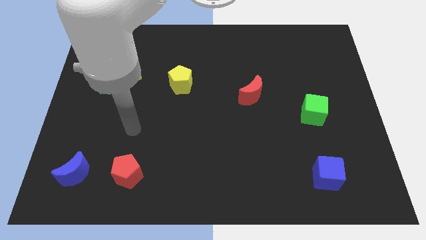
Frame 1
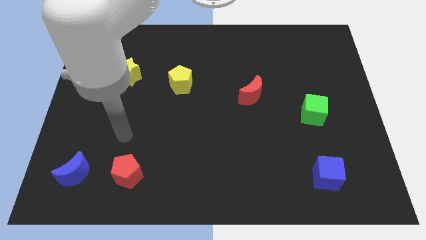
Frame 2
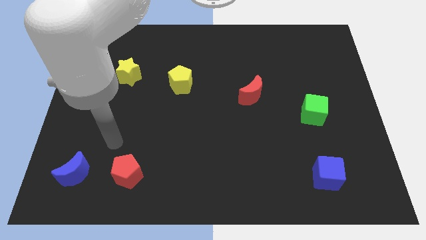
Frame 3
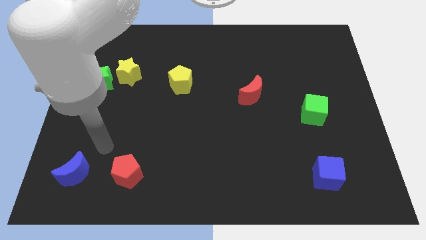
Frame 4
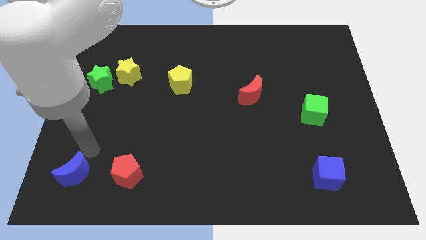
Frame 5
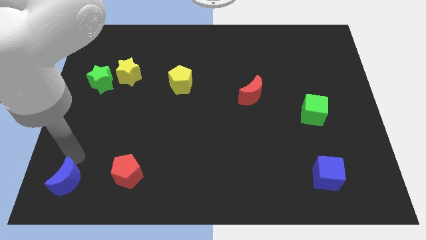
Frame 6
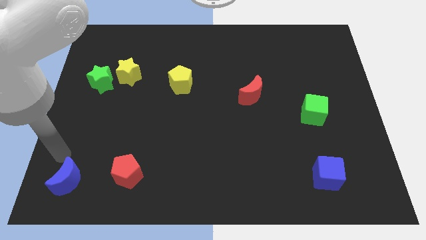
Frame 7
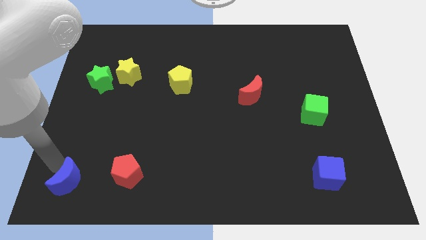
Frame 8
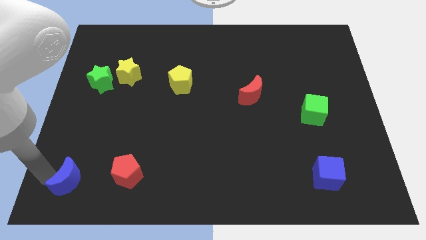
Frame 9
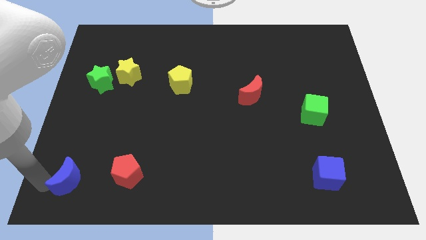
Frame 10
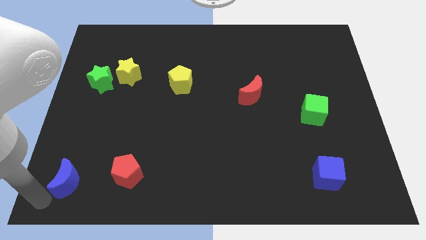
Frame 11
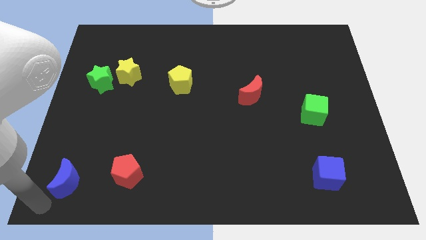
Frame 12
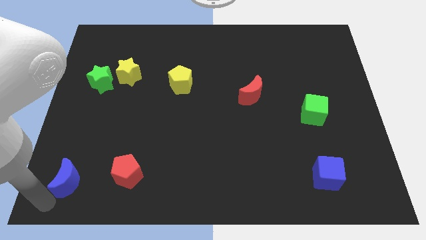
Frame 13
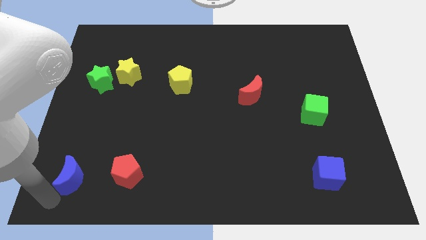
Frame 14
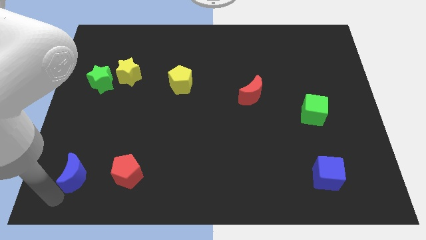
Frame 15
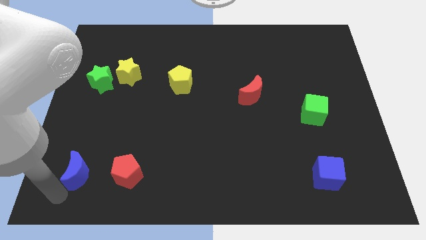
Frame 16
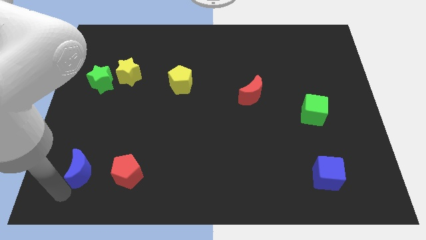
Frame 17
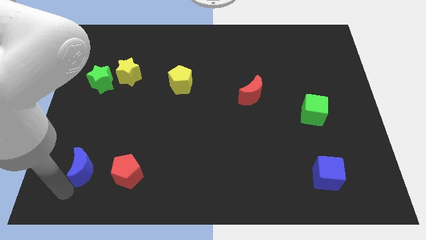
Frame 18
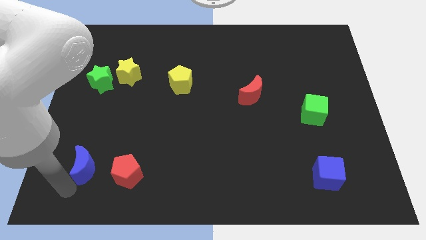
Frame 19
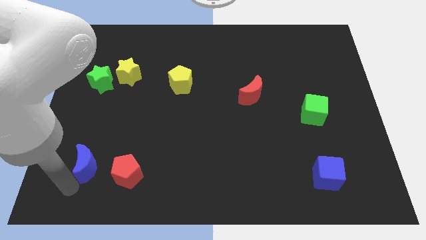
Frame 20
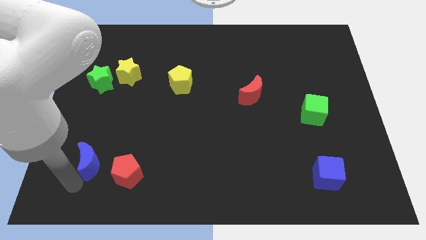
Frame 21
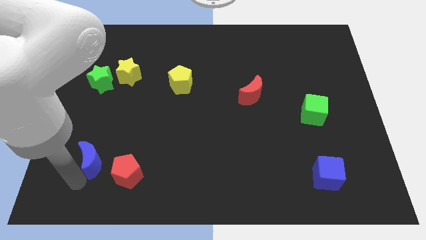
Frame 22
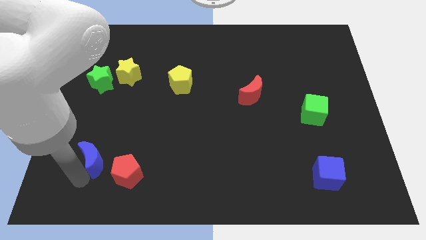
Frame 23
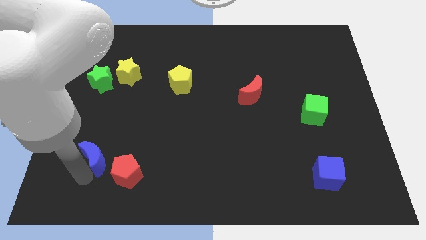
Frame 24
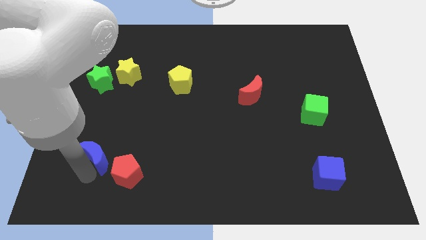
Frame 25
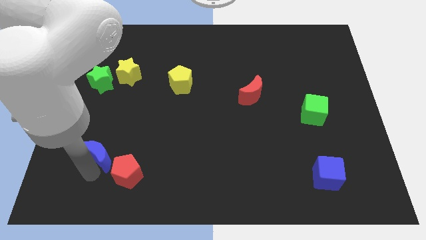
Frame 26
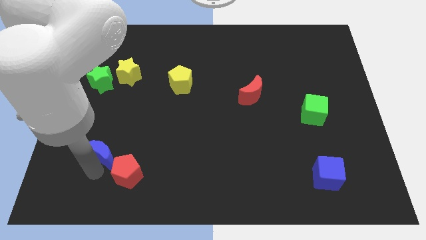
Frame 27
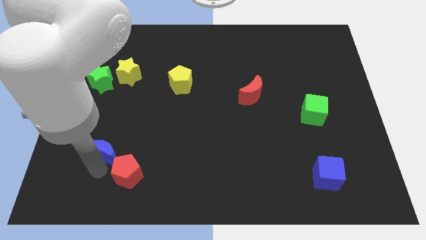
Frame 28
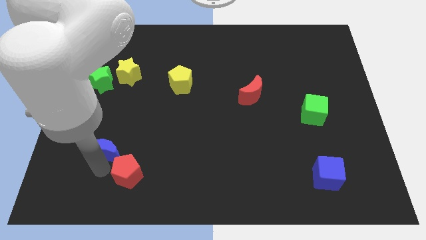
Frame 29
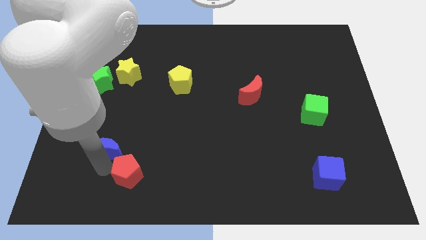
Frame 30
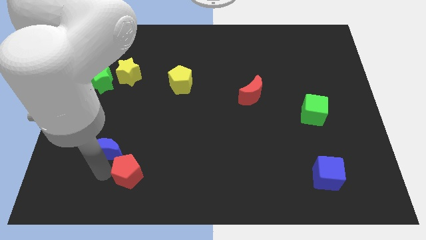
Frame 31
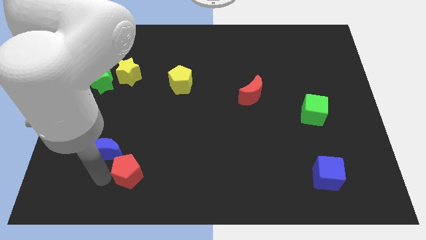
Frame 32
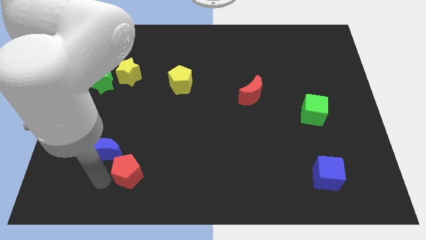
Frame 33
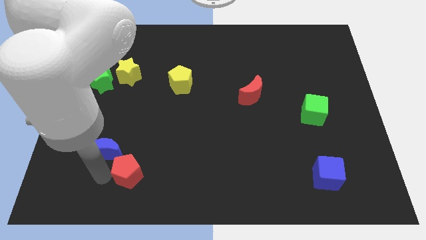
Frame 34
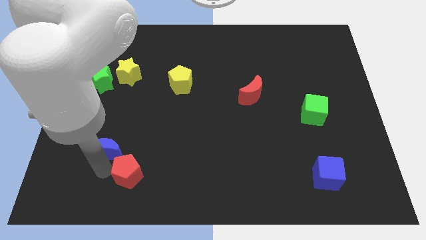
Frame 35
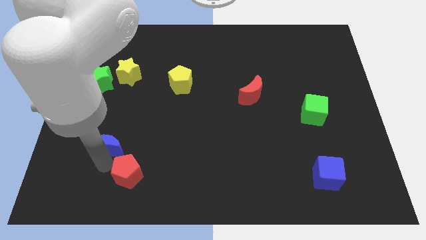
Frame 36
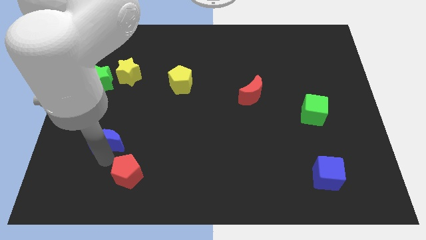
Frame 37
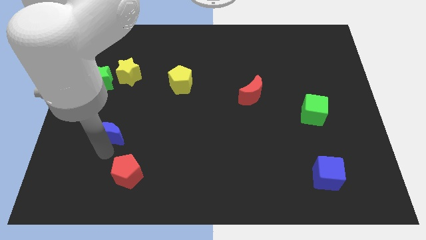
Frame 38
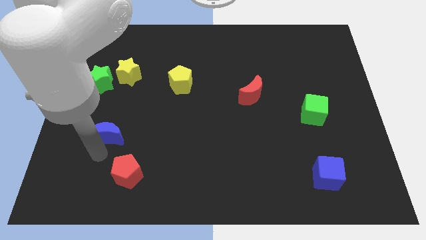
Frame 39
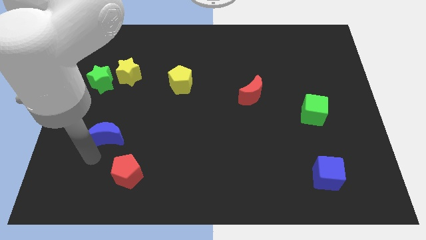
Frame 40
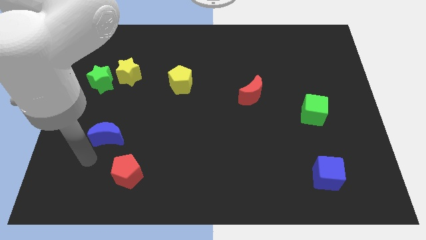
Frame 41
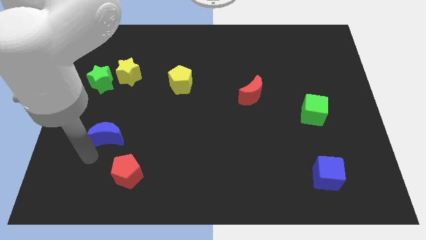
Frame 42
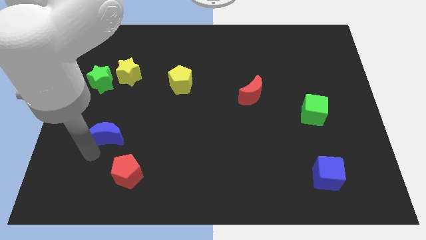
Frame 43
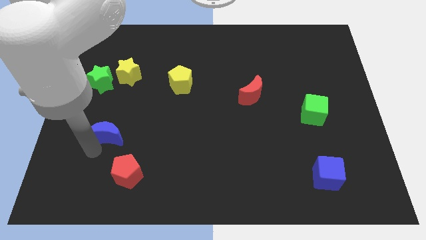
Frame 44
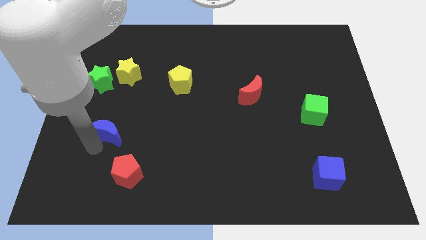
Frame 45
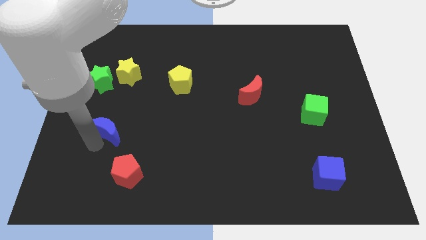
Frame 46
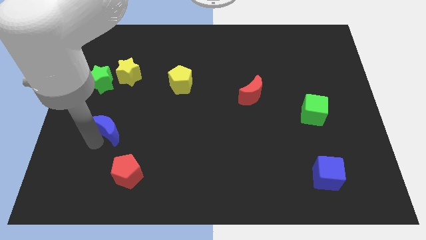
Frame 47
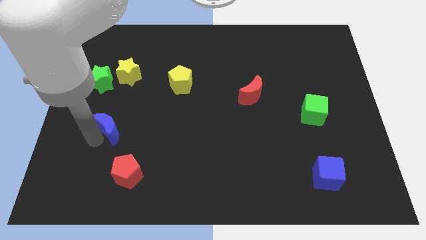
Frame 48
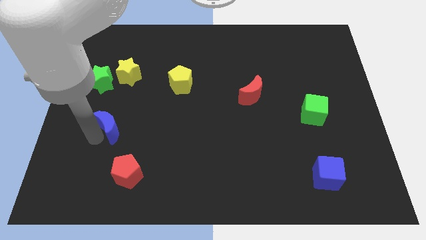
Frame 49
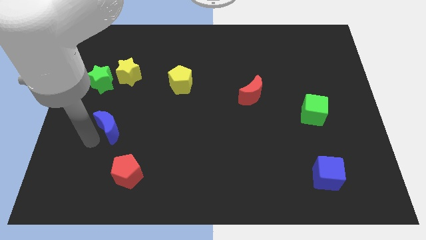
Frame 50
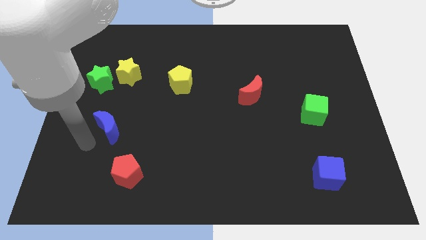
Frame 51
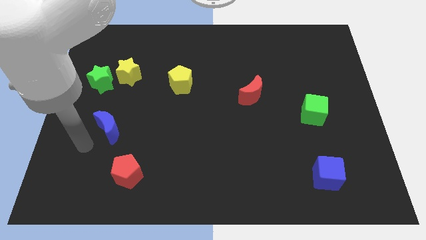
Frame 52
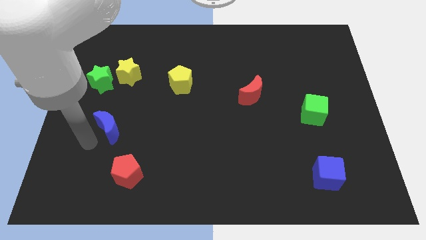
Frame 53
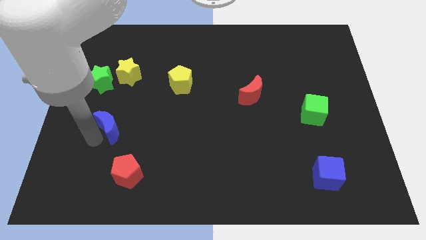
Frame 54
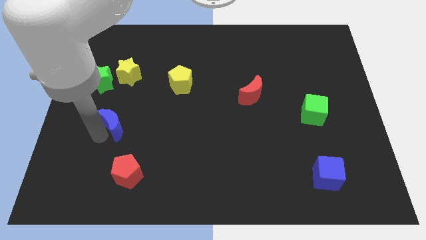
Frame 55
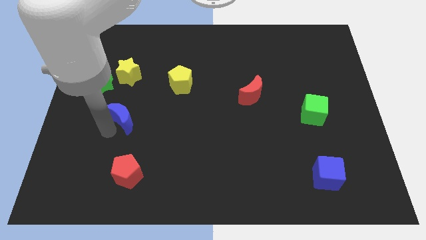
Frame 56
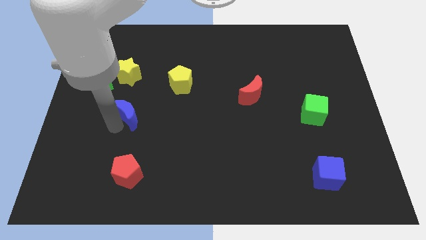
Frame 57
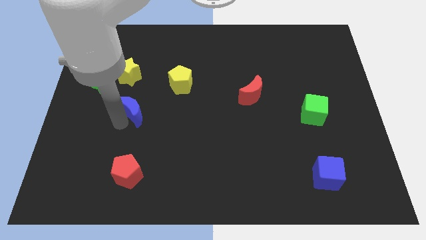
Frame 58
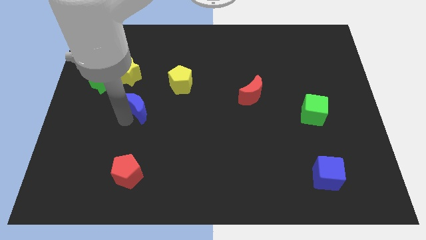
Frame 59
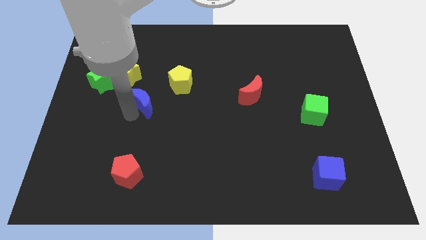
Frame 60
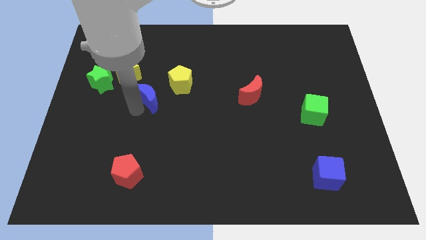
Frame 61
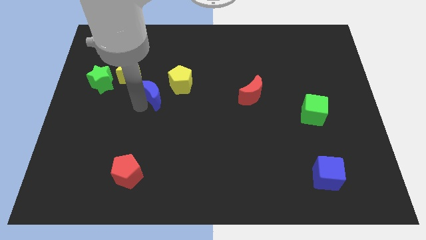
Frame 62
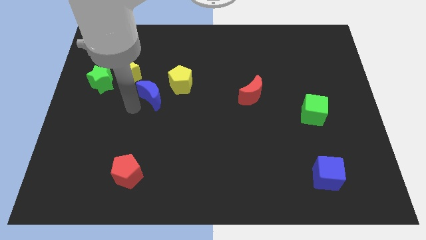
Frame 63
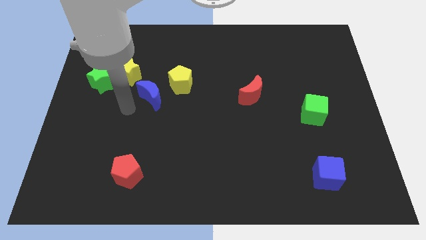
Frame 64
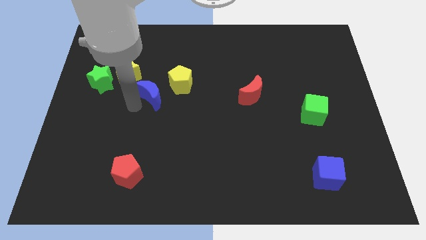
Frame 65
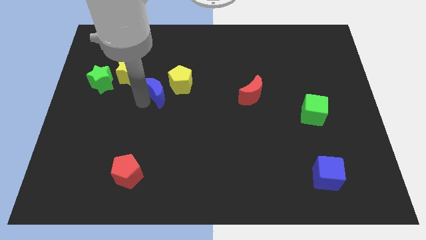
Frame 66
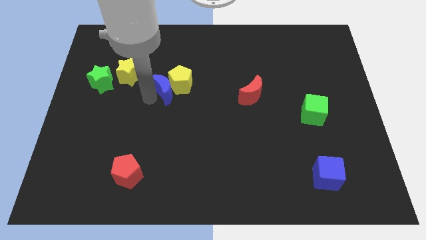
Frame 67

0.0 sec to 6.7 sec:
put the blue moon next to the yellow pentagon
